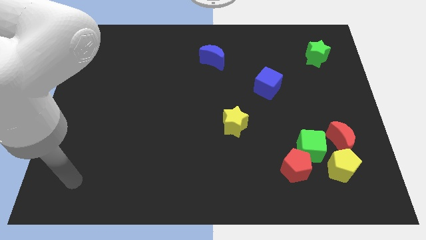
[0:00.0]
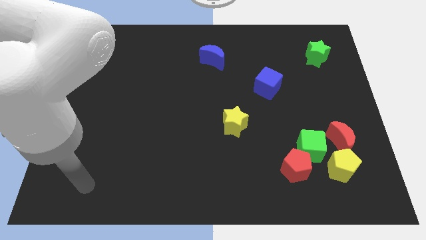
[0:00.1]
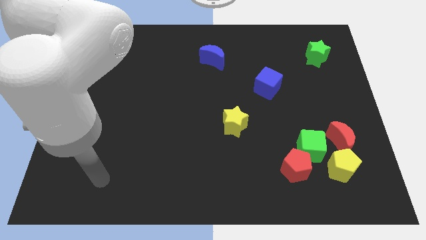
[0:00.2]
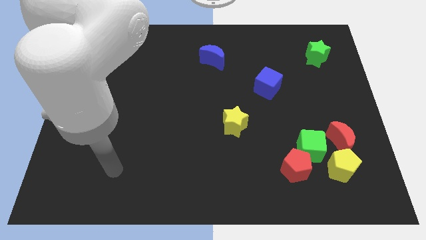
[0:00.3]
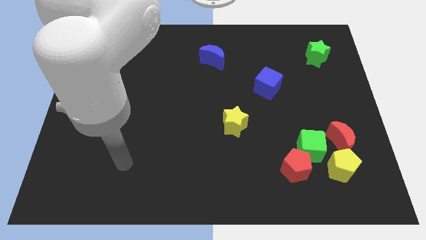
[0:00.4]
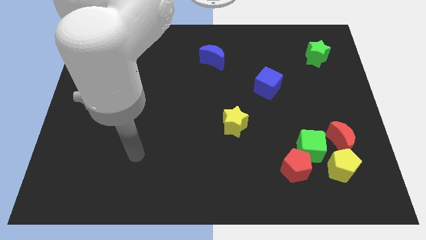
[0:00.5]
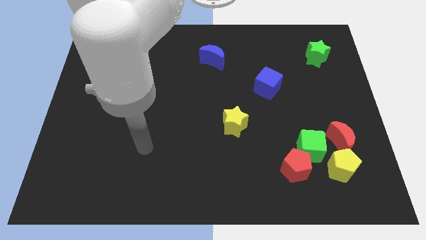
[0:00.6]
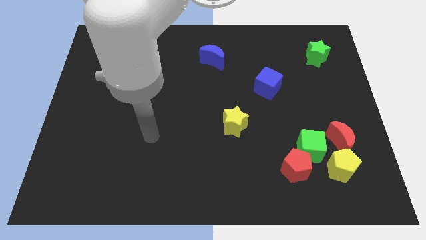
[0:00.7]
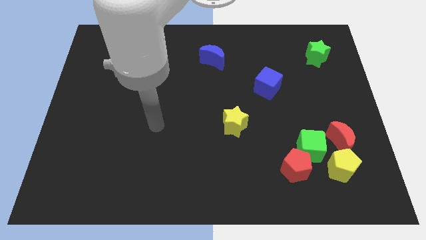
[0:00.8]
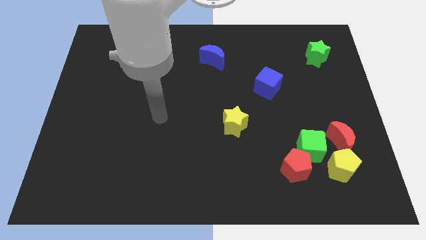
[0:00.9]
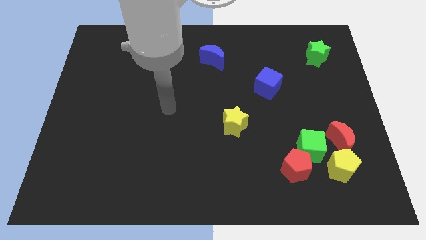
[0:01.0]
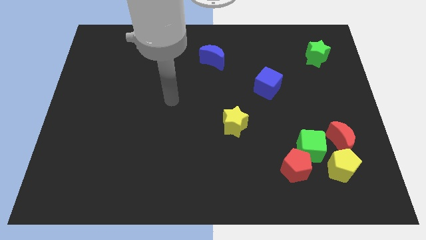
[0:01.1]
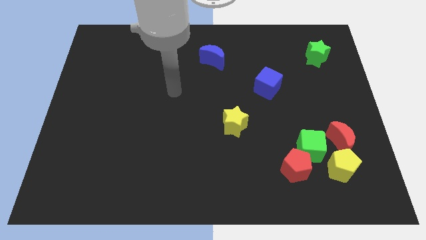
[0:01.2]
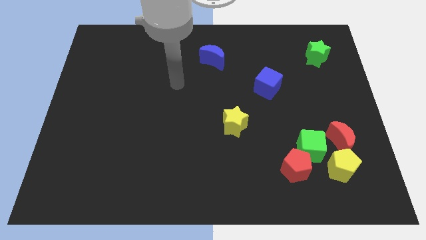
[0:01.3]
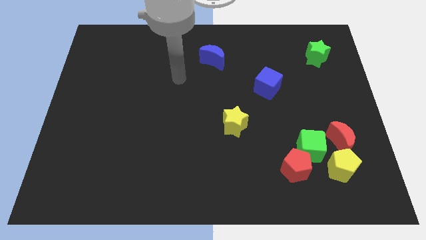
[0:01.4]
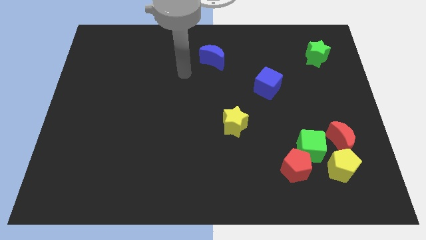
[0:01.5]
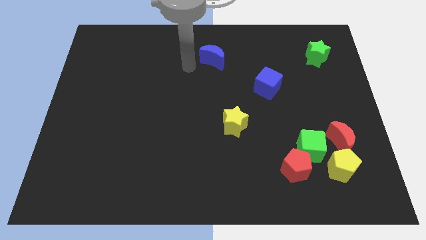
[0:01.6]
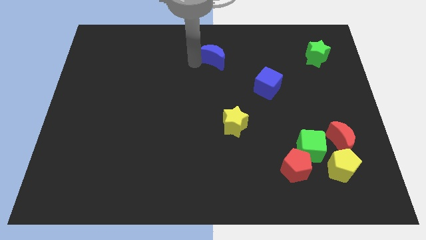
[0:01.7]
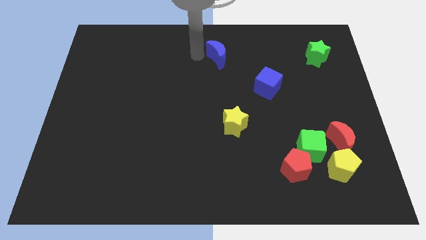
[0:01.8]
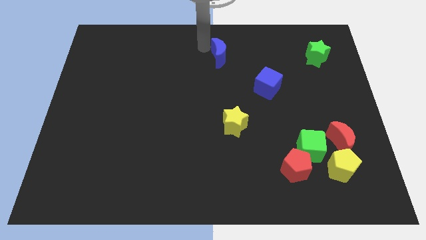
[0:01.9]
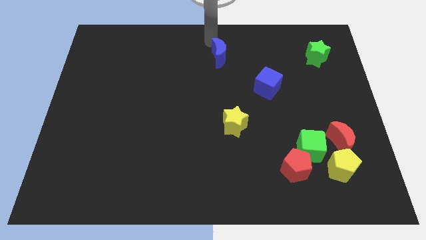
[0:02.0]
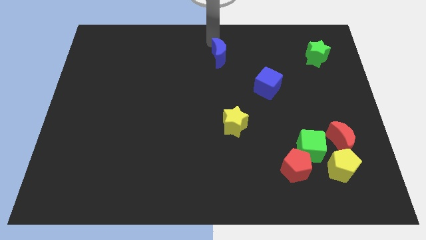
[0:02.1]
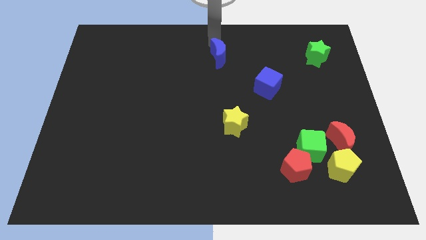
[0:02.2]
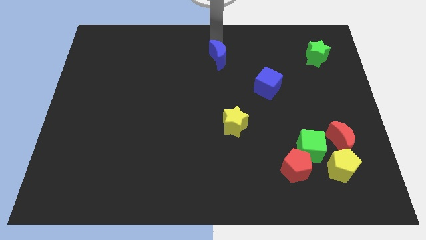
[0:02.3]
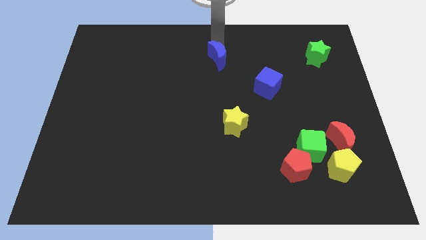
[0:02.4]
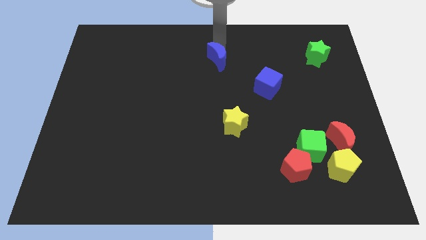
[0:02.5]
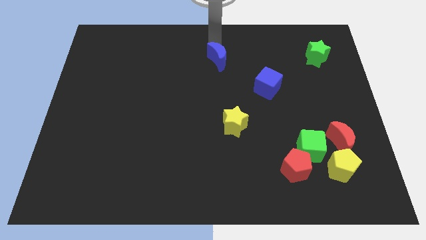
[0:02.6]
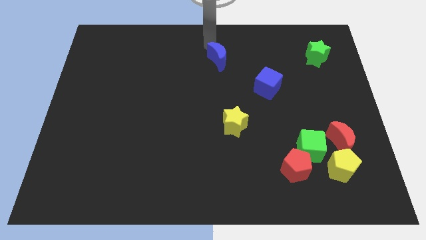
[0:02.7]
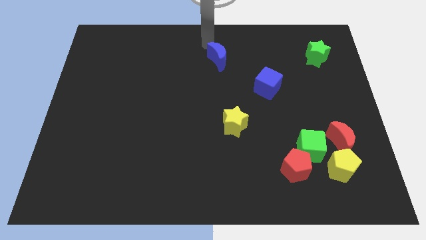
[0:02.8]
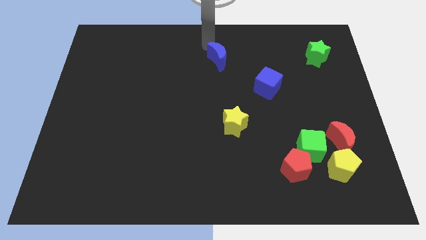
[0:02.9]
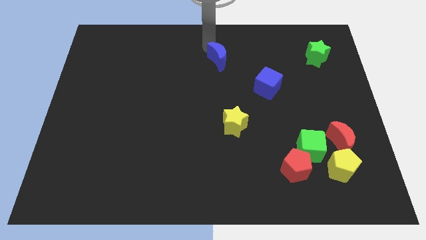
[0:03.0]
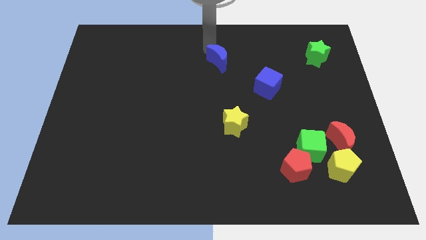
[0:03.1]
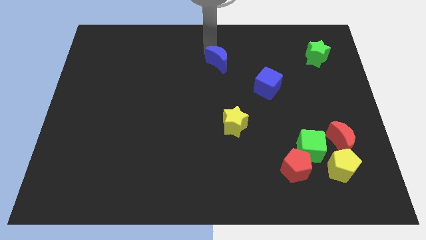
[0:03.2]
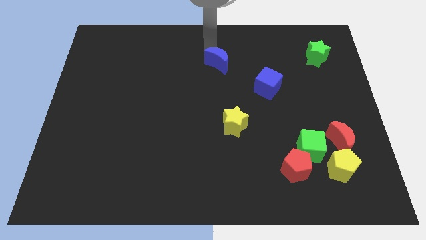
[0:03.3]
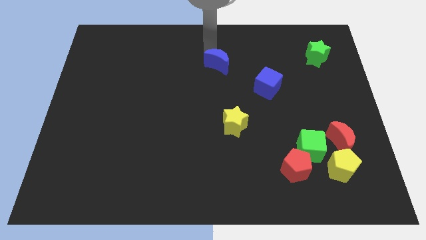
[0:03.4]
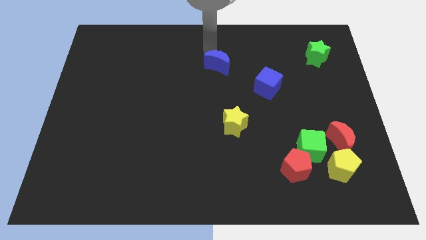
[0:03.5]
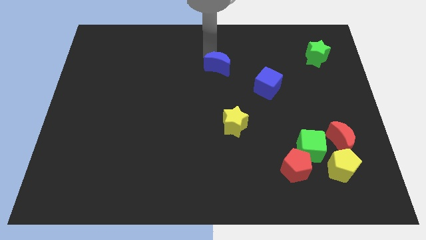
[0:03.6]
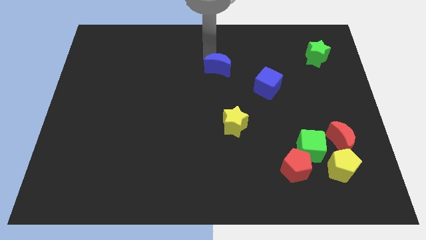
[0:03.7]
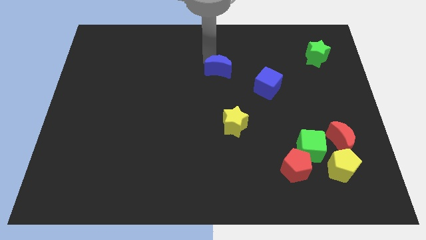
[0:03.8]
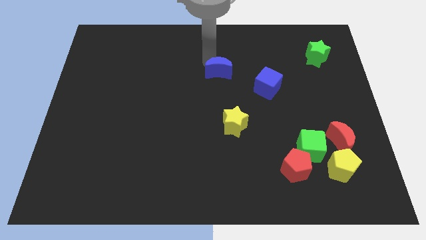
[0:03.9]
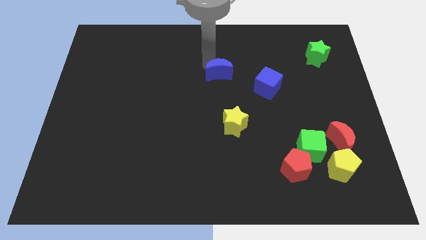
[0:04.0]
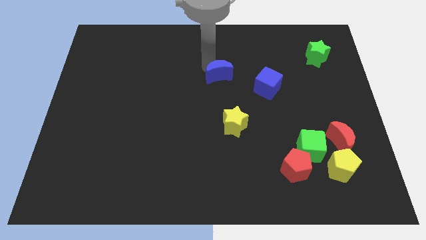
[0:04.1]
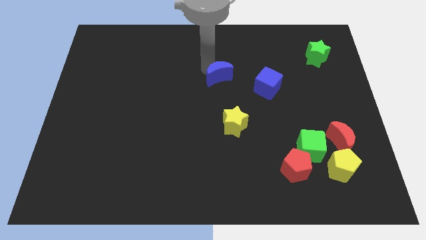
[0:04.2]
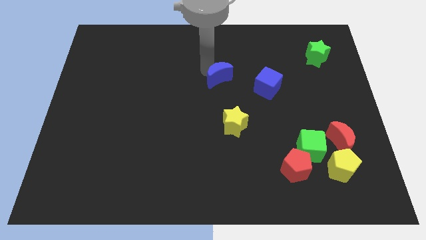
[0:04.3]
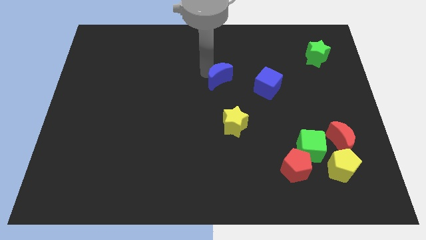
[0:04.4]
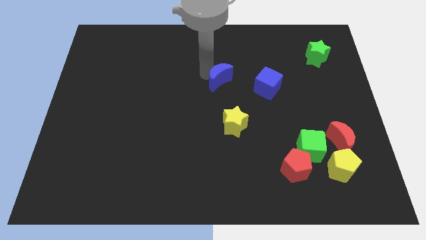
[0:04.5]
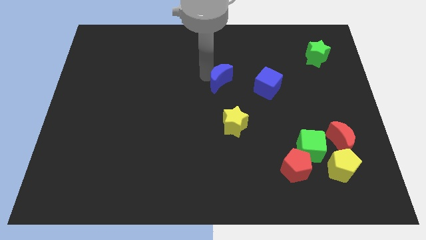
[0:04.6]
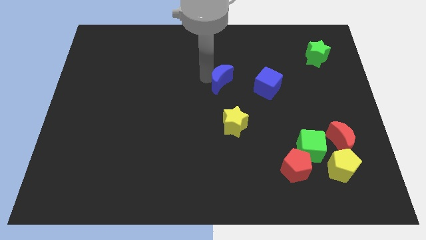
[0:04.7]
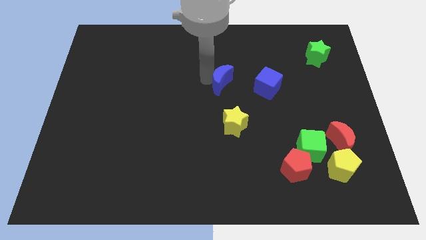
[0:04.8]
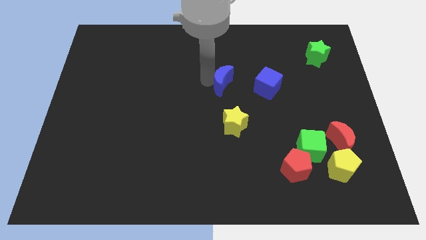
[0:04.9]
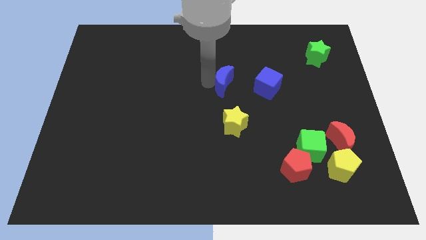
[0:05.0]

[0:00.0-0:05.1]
push the blue moon downwards and to the right a little

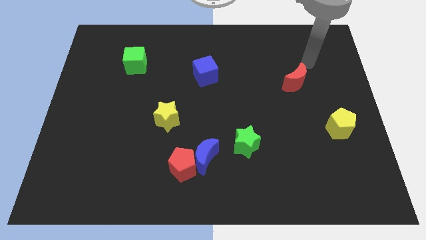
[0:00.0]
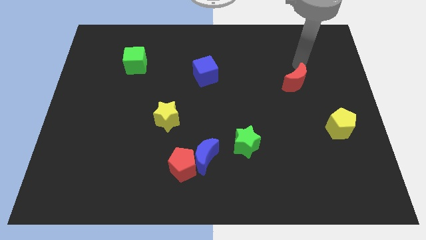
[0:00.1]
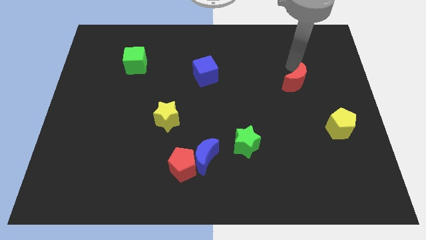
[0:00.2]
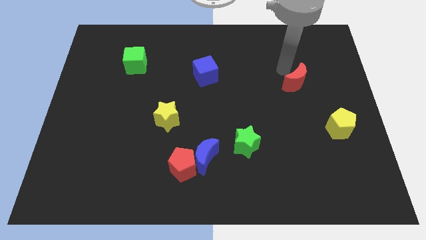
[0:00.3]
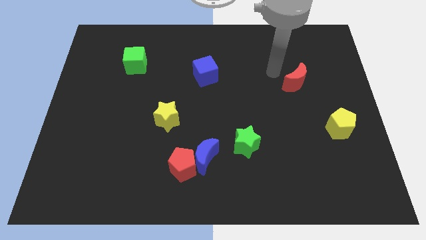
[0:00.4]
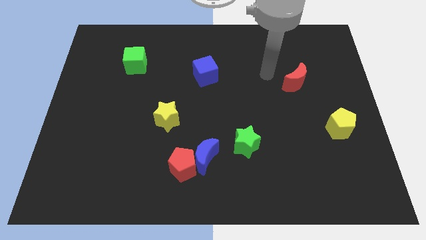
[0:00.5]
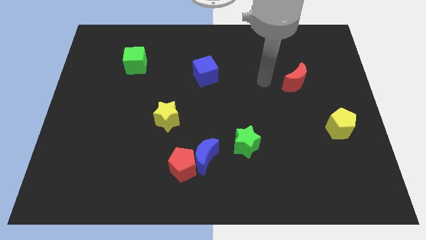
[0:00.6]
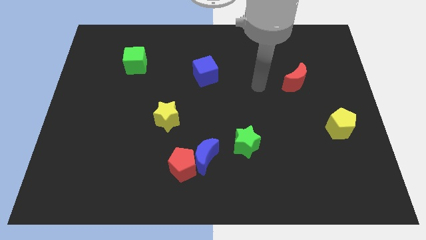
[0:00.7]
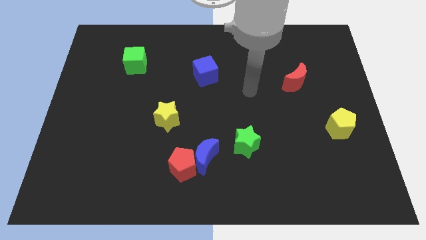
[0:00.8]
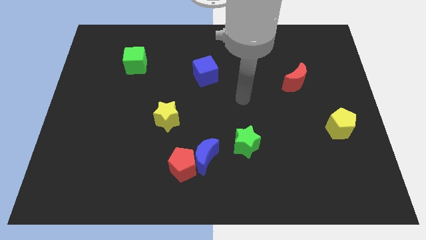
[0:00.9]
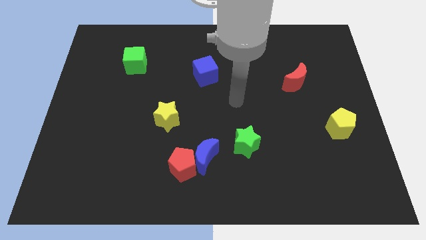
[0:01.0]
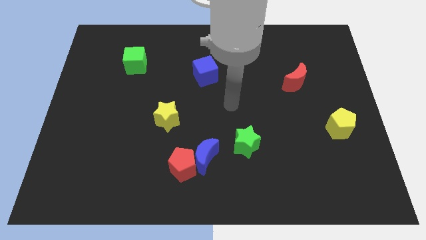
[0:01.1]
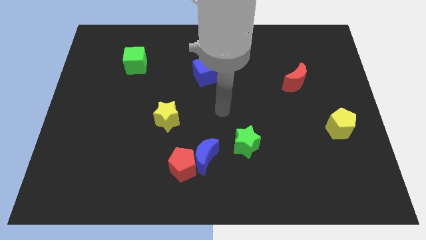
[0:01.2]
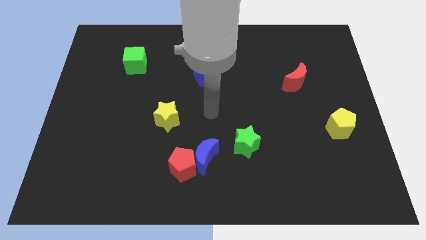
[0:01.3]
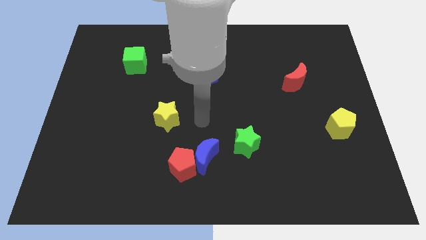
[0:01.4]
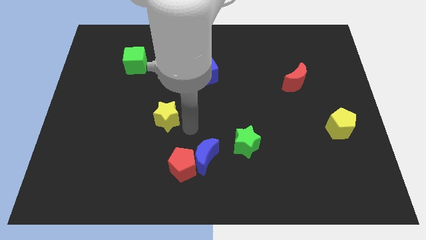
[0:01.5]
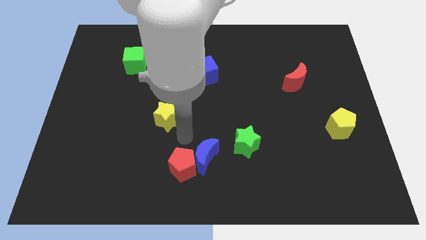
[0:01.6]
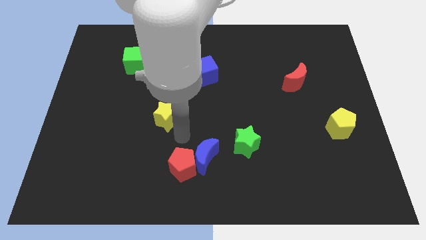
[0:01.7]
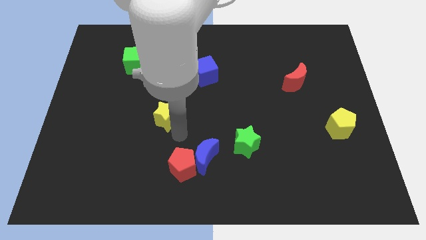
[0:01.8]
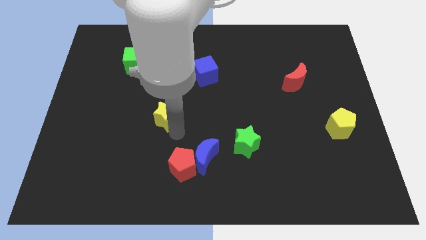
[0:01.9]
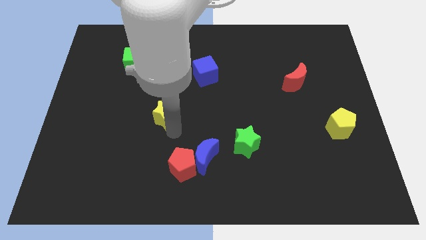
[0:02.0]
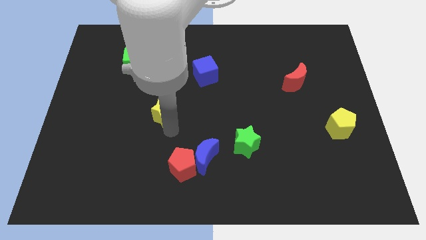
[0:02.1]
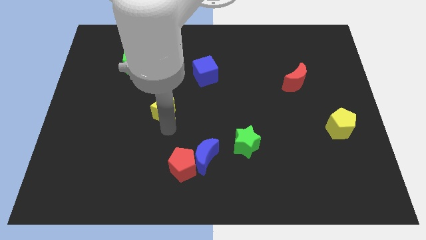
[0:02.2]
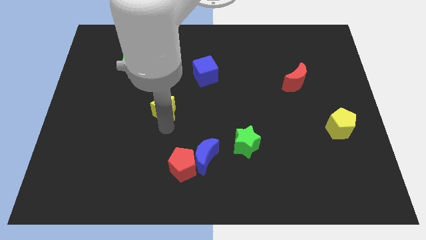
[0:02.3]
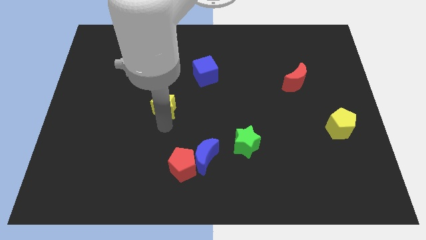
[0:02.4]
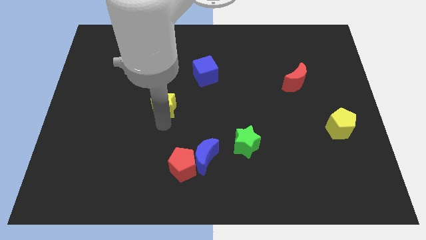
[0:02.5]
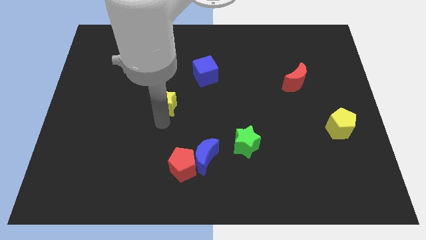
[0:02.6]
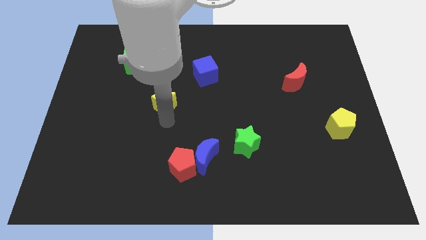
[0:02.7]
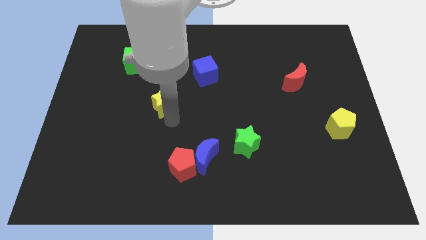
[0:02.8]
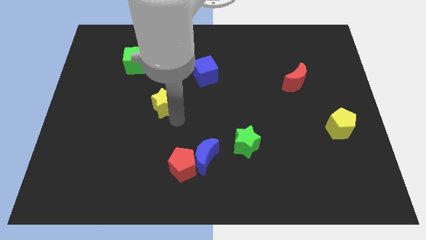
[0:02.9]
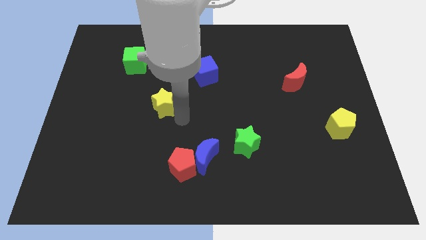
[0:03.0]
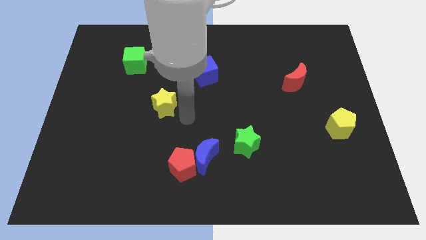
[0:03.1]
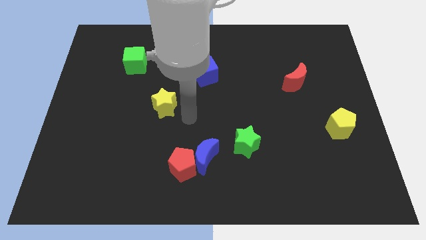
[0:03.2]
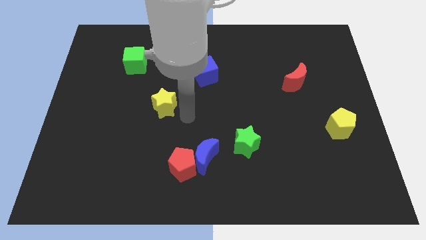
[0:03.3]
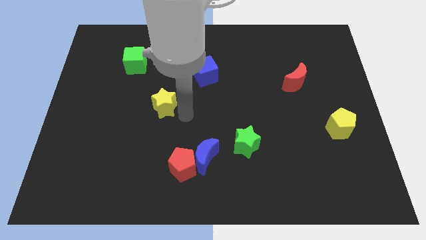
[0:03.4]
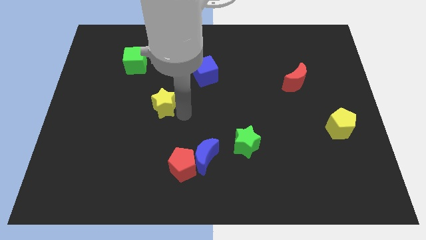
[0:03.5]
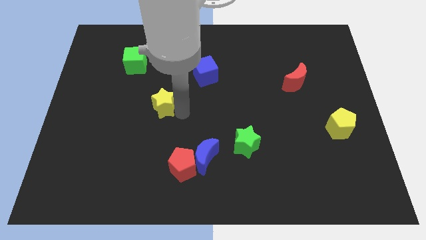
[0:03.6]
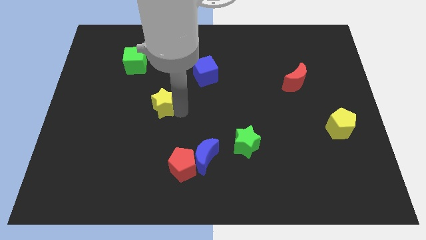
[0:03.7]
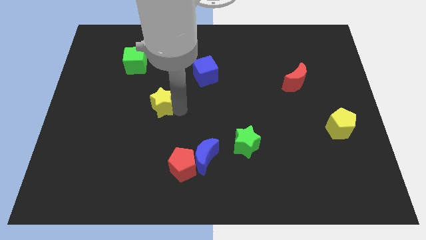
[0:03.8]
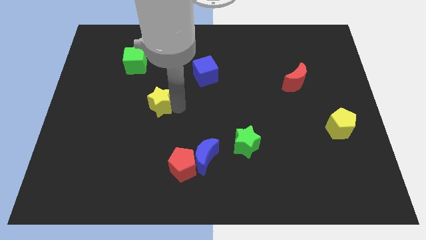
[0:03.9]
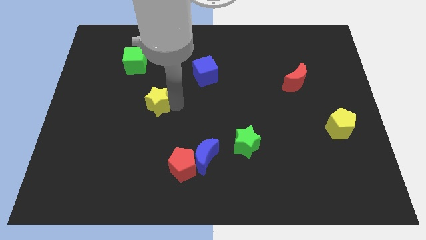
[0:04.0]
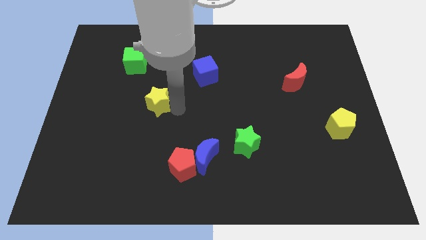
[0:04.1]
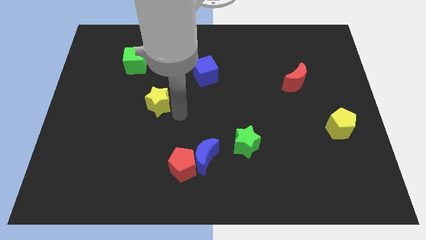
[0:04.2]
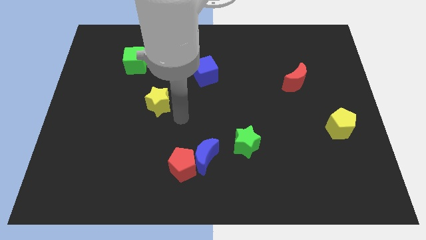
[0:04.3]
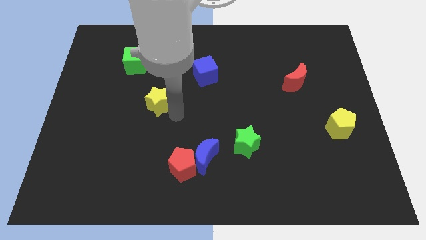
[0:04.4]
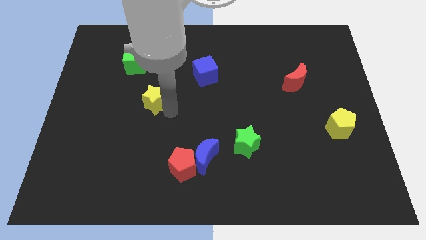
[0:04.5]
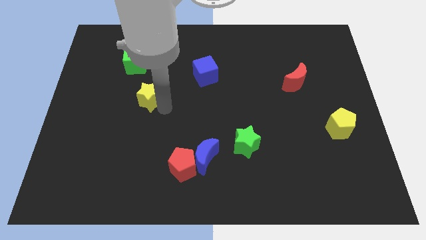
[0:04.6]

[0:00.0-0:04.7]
move the yellow star a little upwards and to the left diagonally
